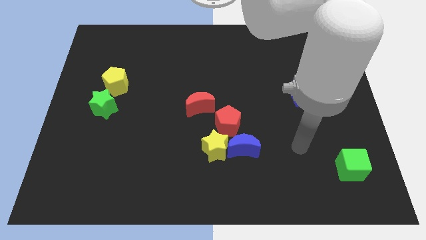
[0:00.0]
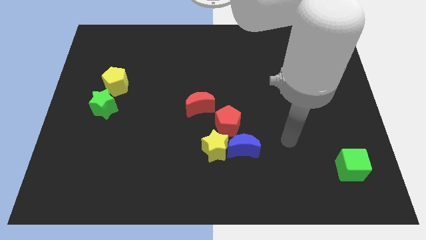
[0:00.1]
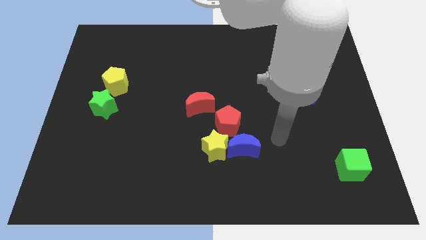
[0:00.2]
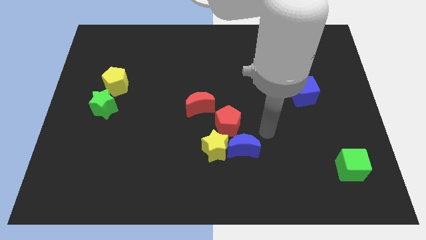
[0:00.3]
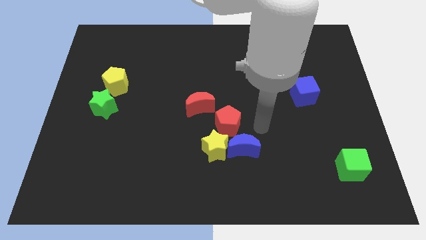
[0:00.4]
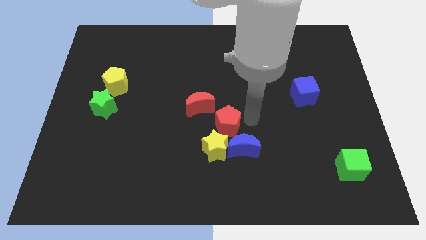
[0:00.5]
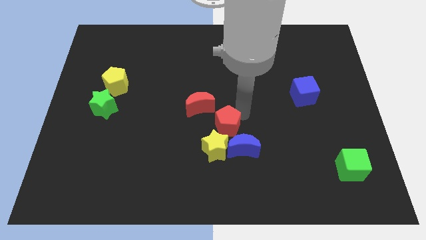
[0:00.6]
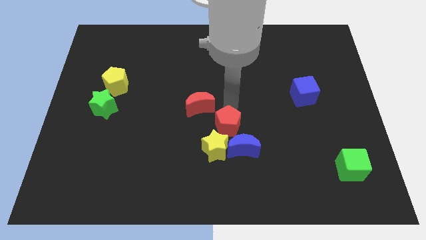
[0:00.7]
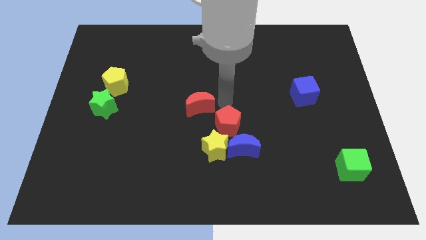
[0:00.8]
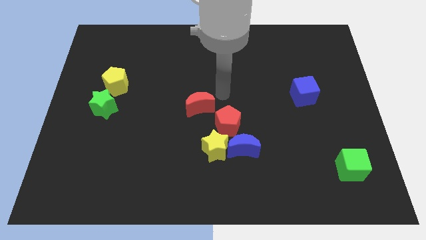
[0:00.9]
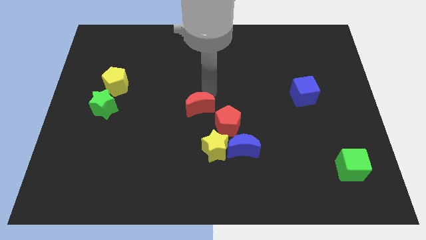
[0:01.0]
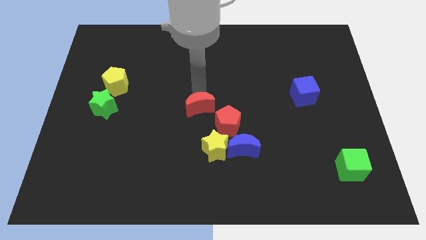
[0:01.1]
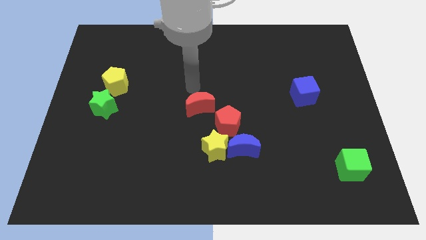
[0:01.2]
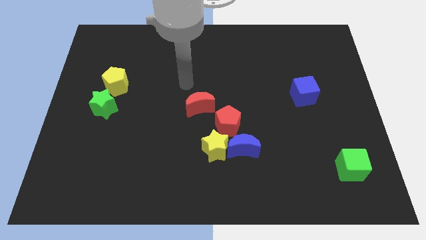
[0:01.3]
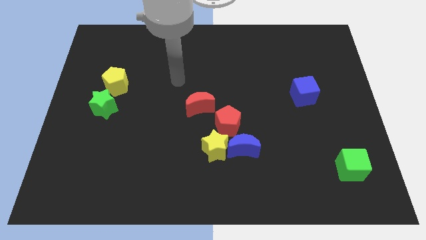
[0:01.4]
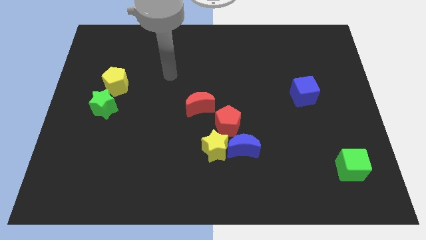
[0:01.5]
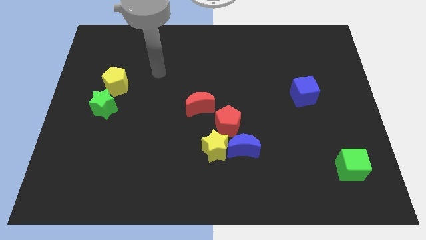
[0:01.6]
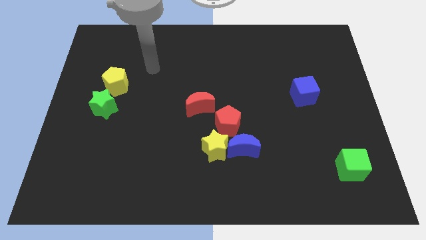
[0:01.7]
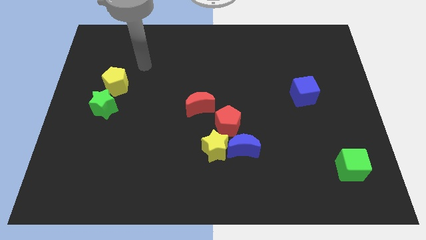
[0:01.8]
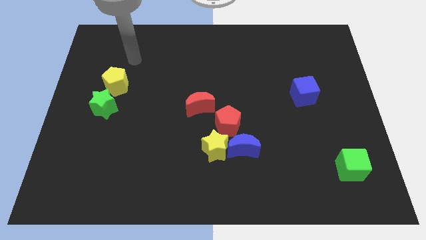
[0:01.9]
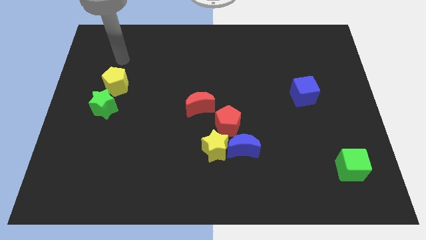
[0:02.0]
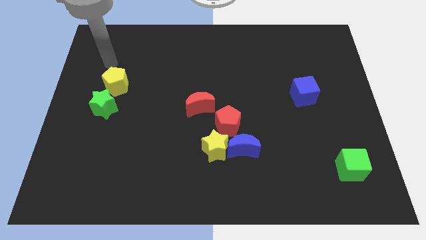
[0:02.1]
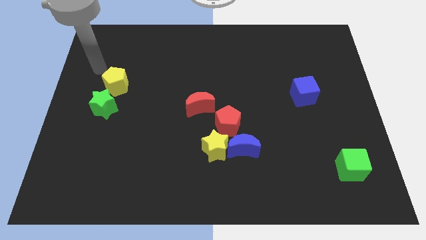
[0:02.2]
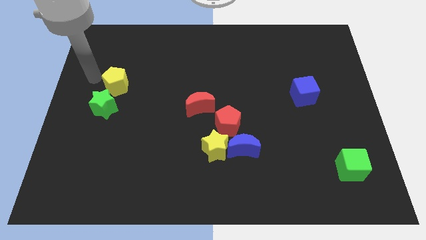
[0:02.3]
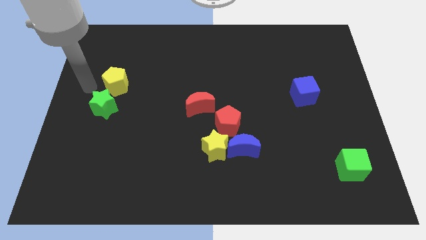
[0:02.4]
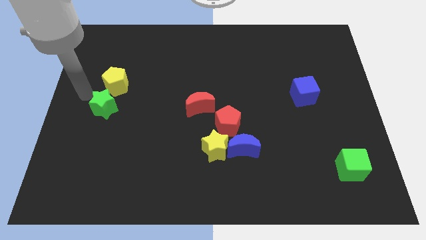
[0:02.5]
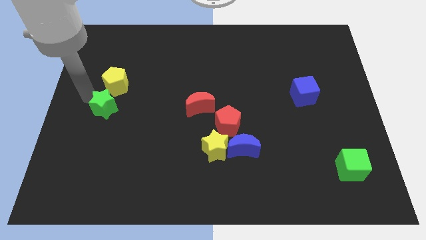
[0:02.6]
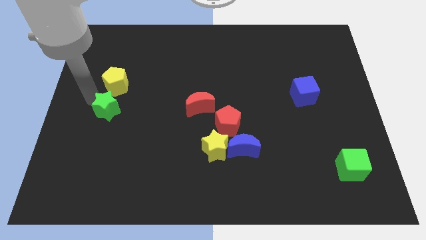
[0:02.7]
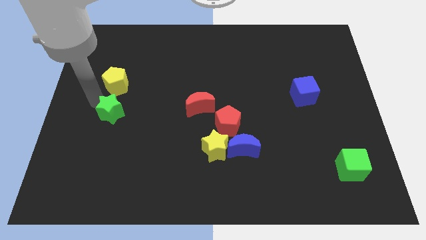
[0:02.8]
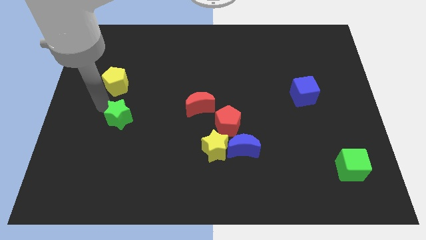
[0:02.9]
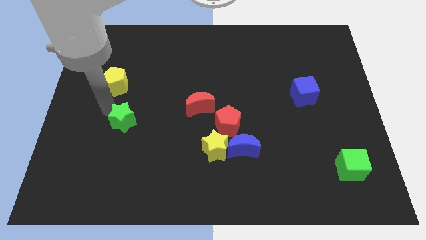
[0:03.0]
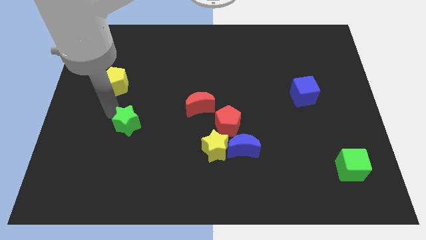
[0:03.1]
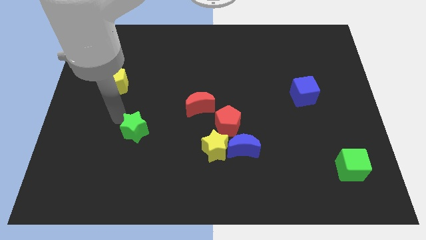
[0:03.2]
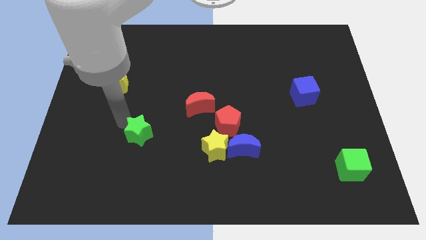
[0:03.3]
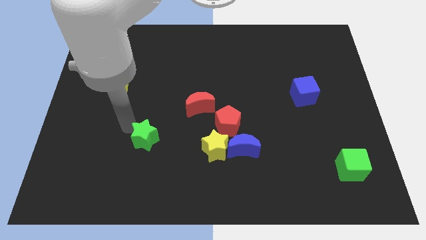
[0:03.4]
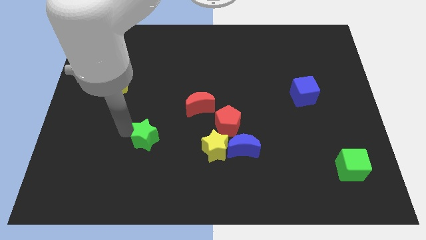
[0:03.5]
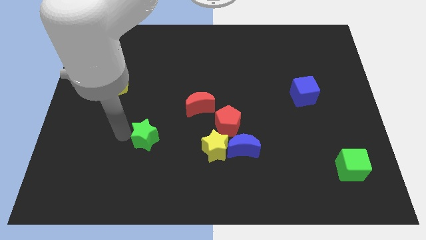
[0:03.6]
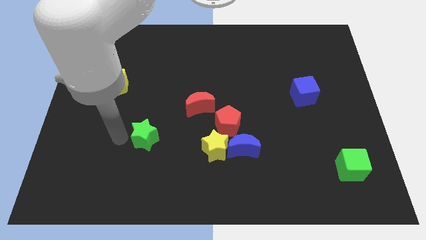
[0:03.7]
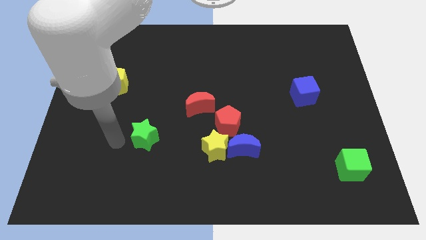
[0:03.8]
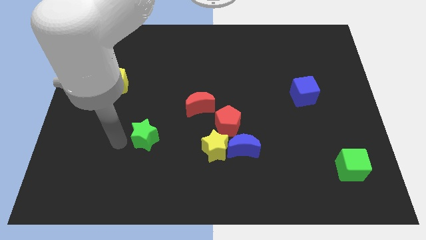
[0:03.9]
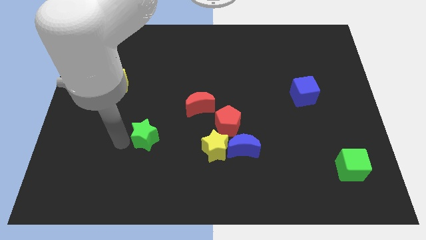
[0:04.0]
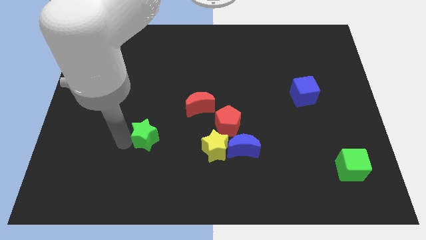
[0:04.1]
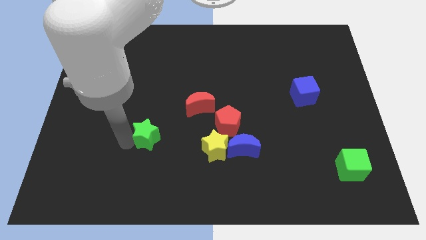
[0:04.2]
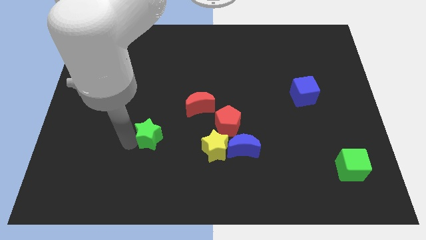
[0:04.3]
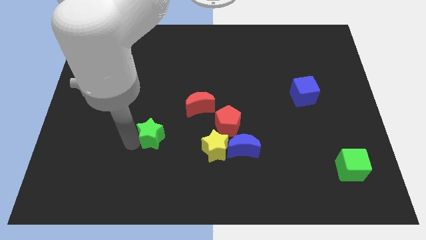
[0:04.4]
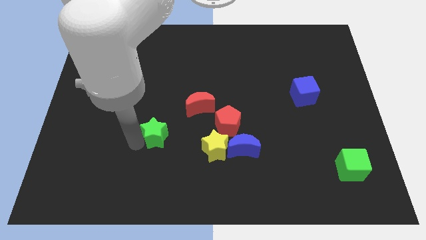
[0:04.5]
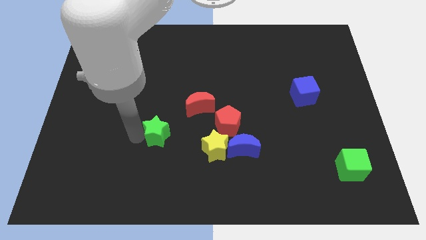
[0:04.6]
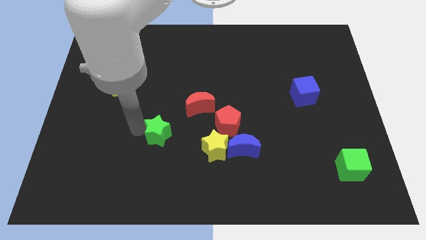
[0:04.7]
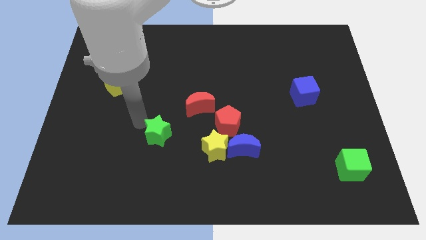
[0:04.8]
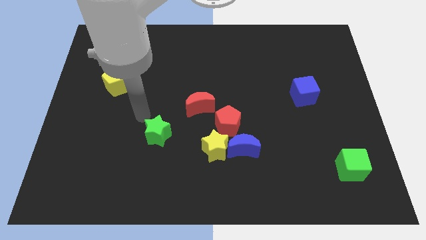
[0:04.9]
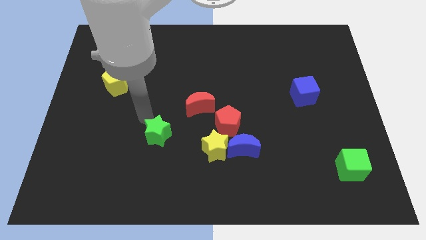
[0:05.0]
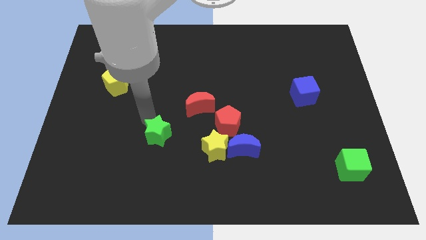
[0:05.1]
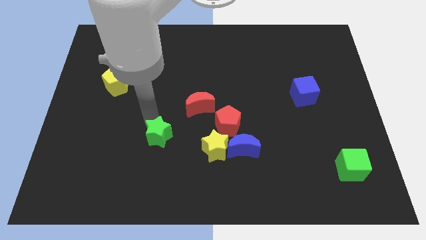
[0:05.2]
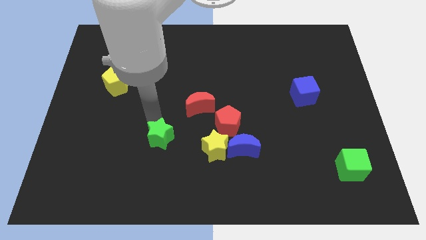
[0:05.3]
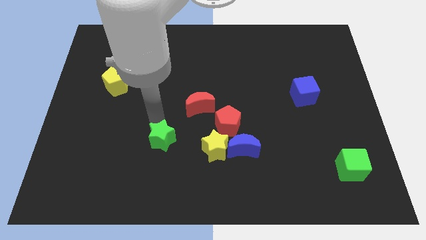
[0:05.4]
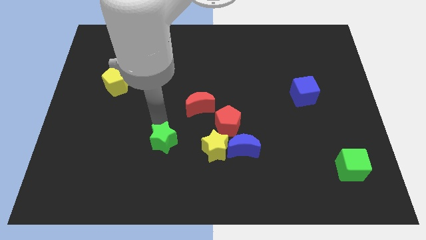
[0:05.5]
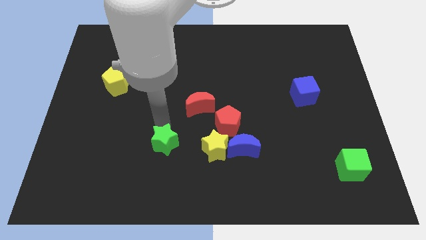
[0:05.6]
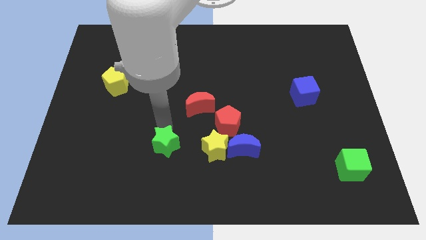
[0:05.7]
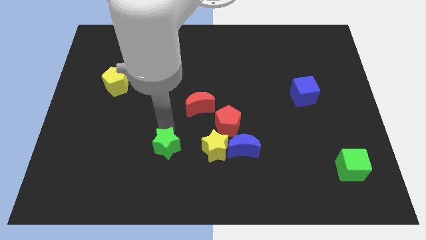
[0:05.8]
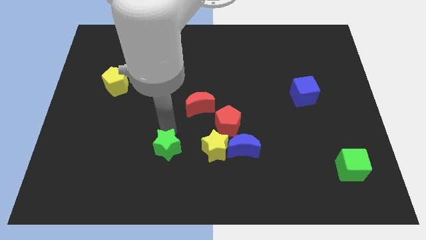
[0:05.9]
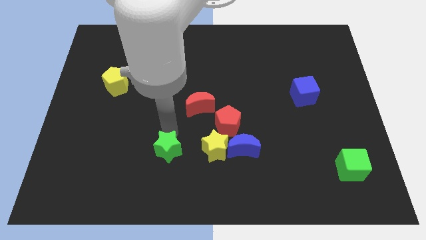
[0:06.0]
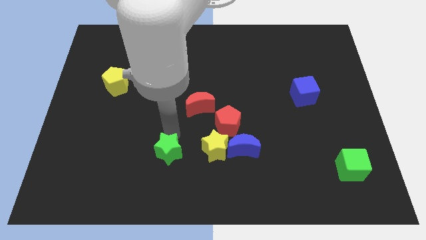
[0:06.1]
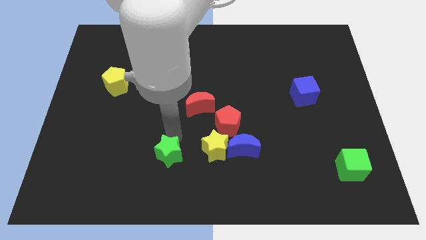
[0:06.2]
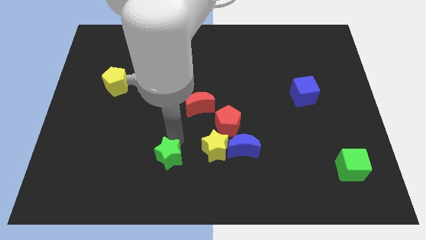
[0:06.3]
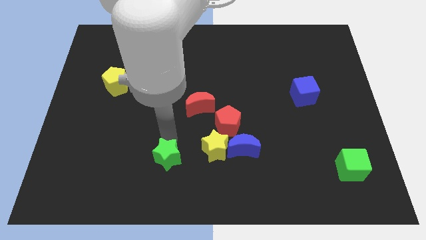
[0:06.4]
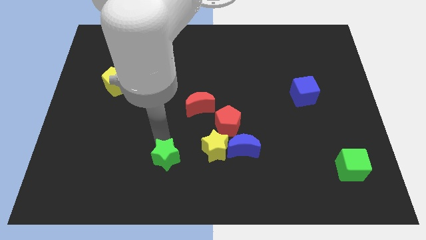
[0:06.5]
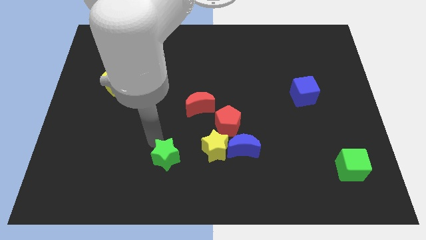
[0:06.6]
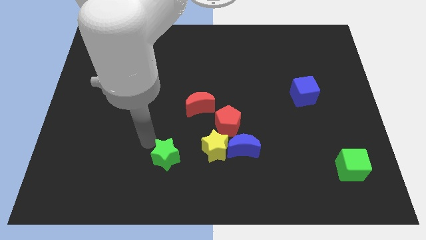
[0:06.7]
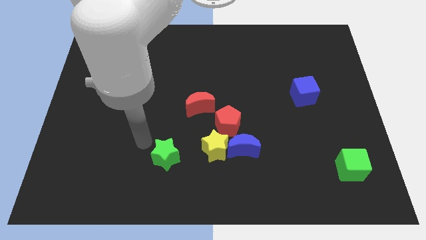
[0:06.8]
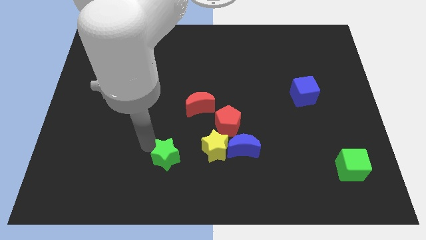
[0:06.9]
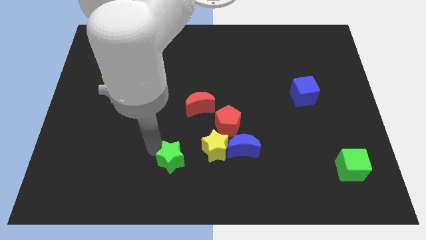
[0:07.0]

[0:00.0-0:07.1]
move the green star to the bottom left side of the yellow star
